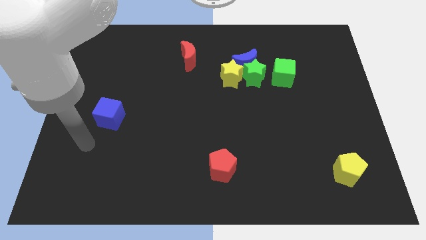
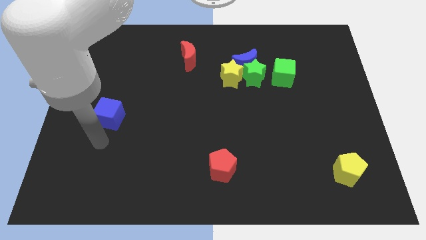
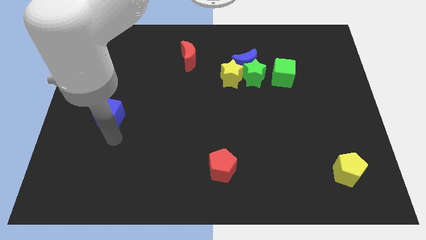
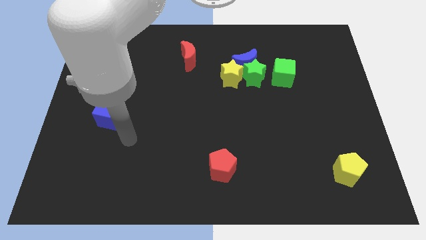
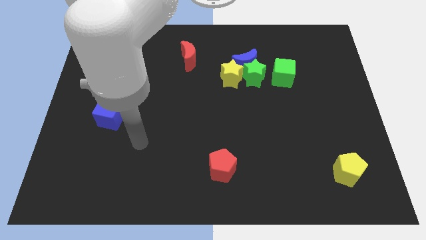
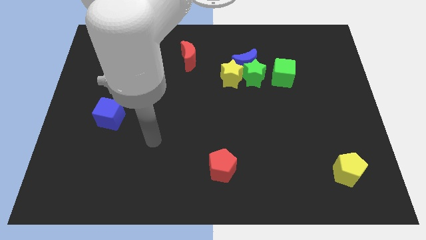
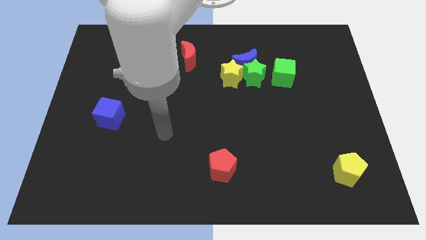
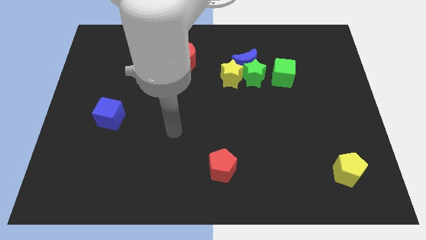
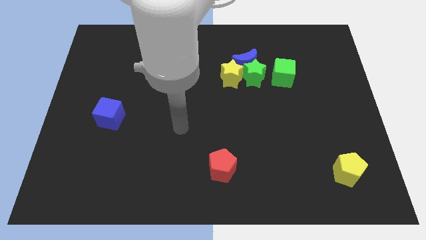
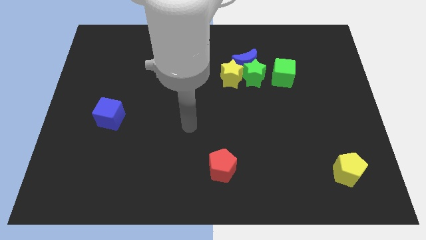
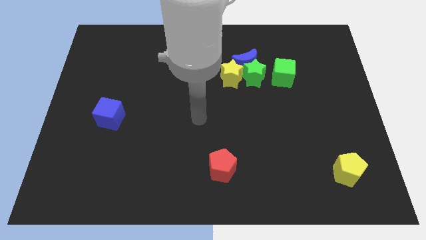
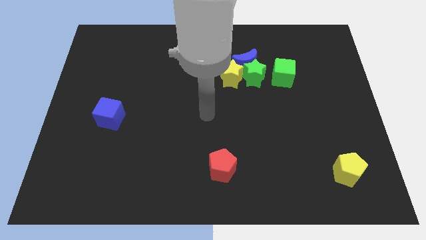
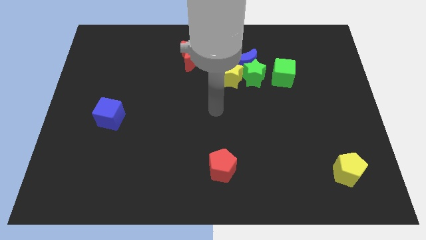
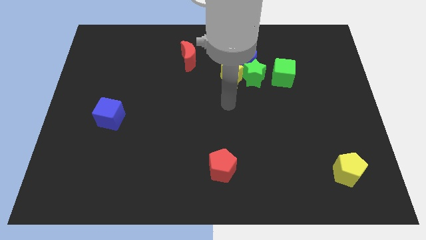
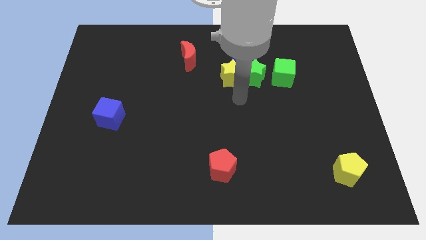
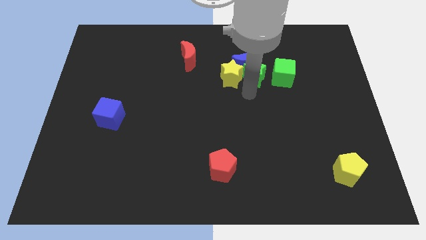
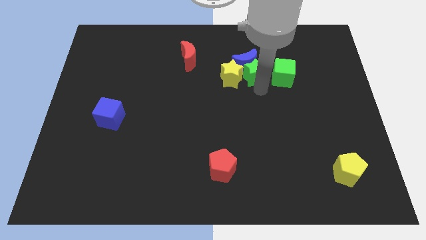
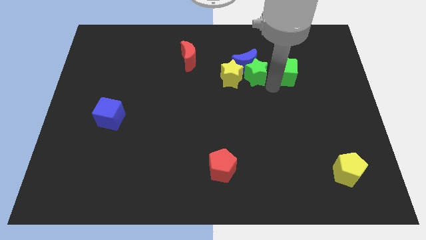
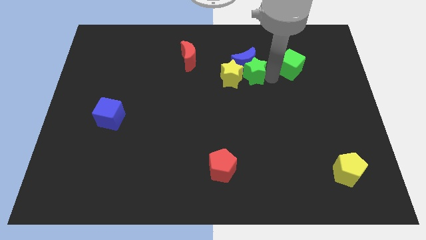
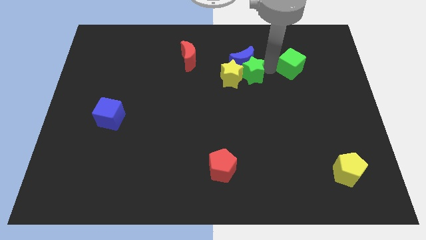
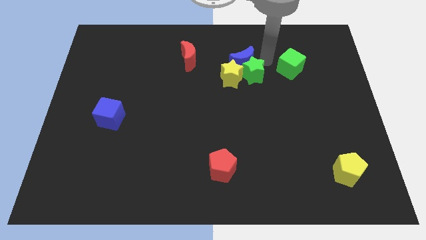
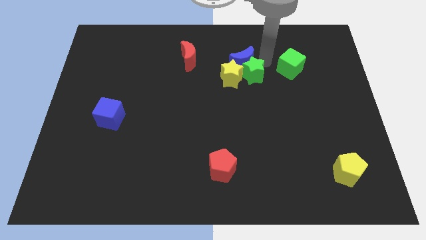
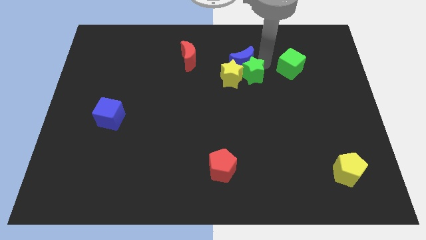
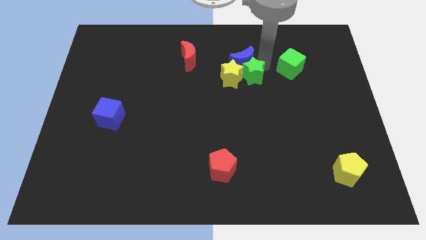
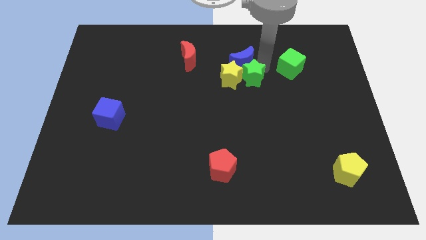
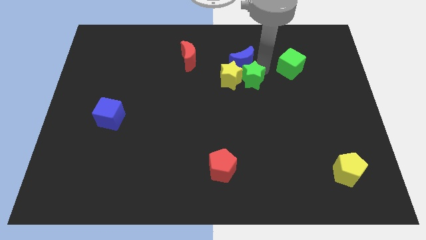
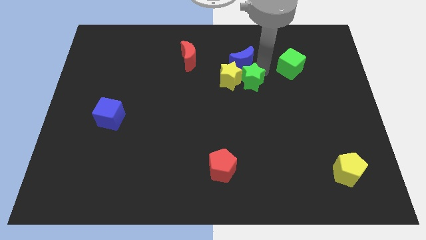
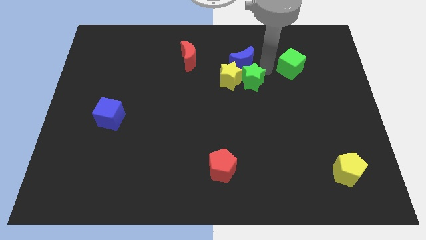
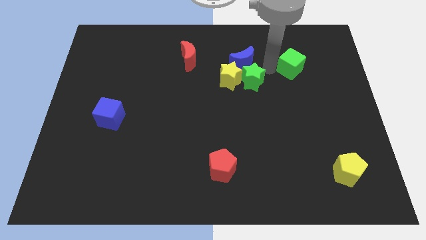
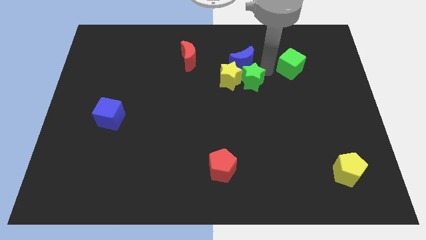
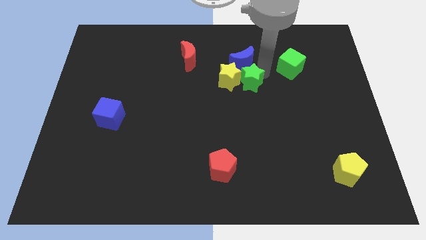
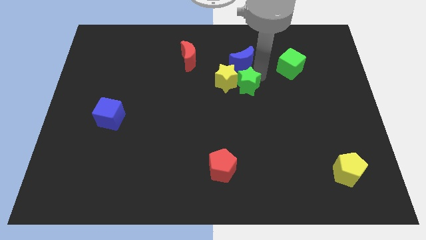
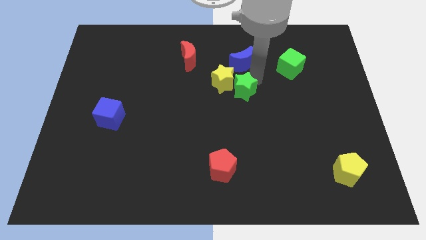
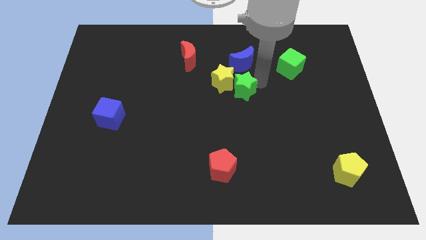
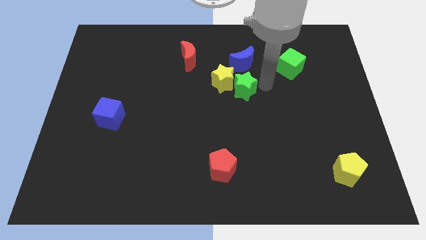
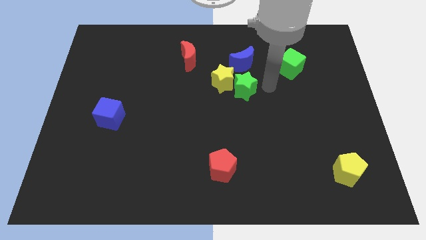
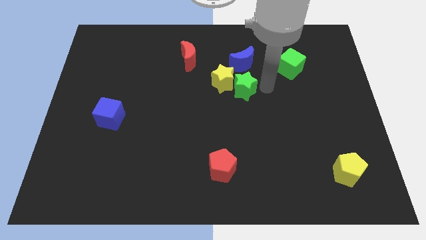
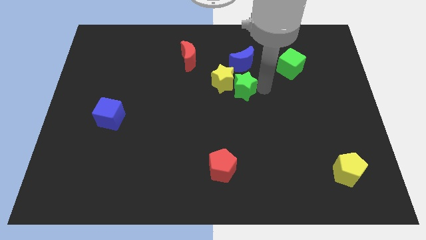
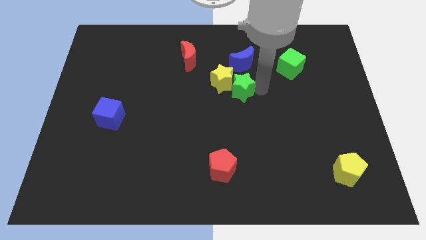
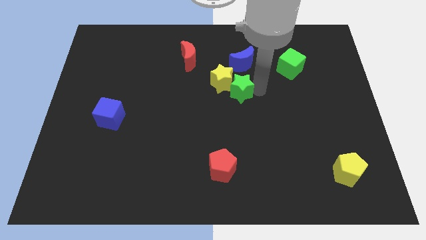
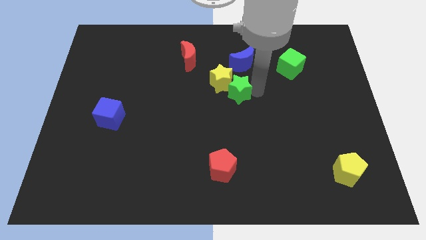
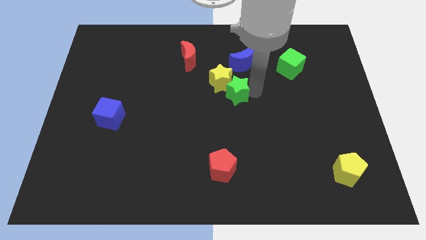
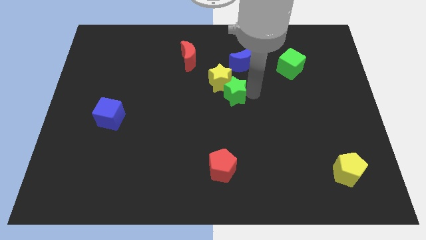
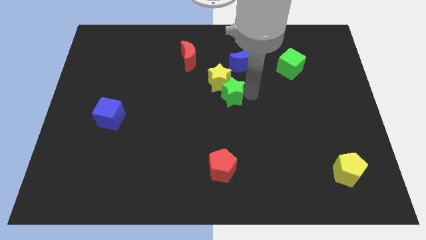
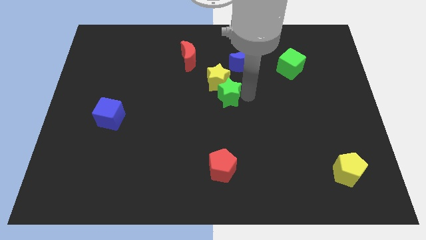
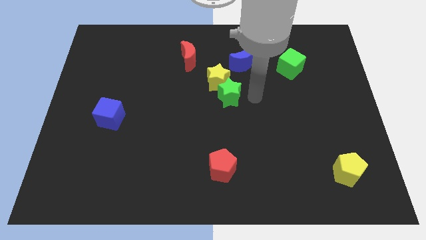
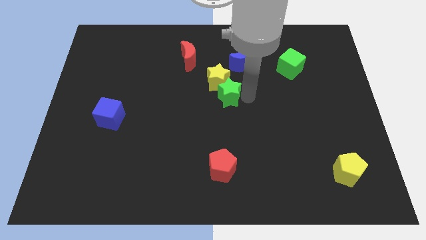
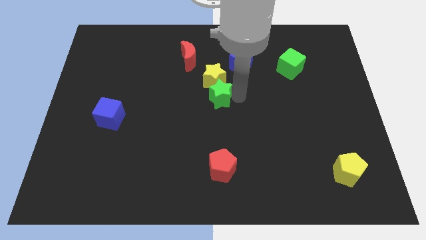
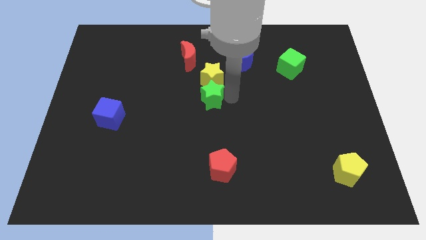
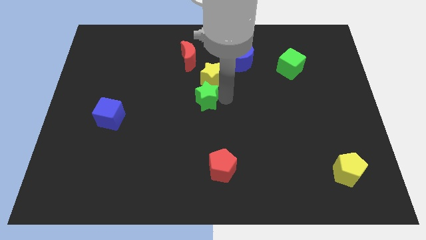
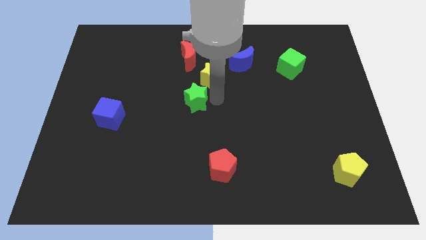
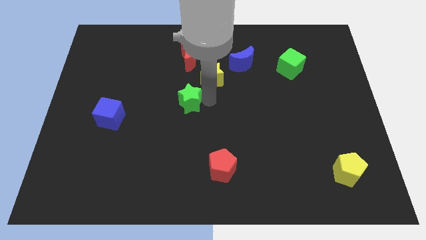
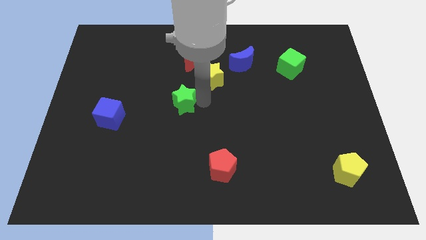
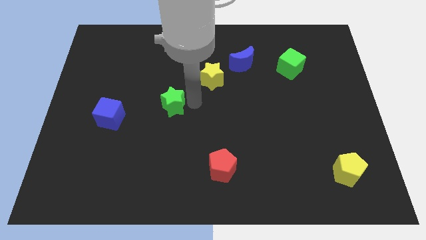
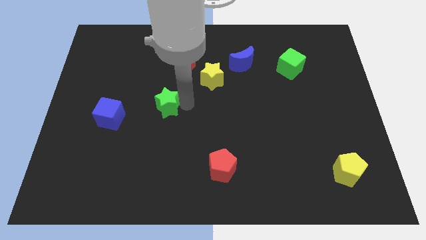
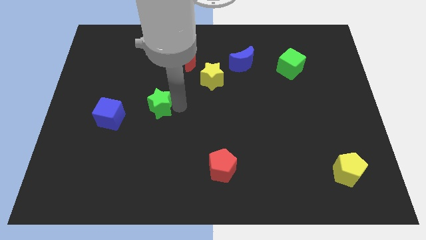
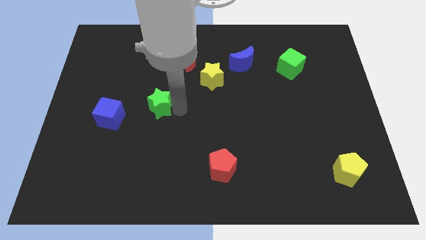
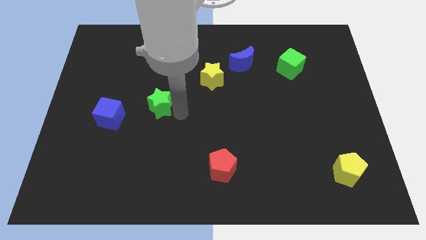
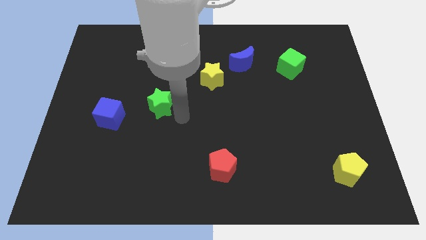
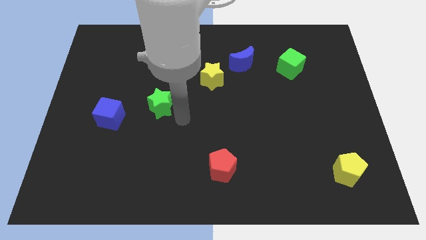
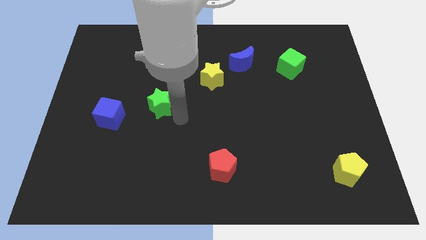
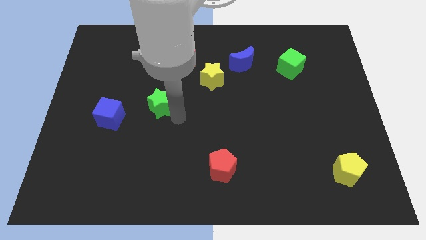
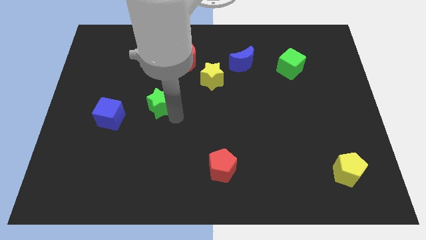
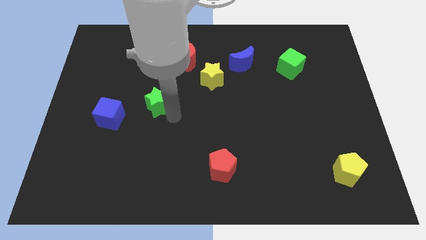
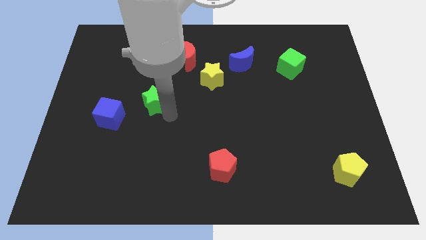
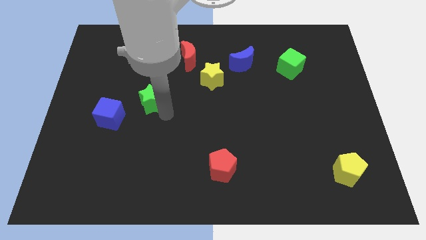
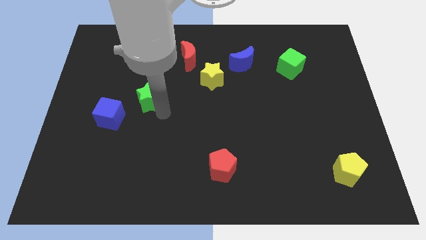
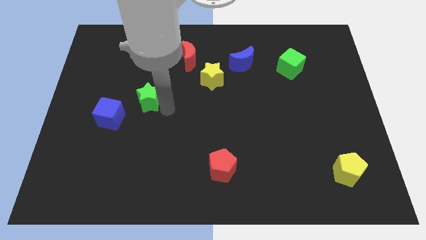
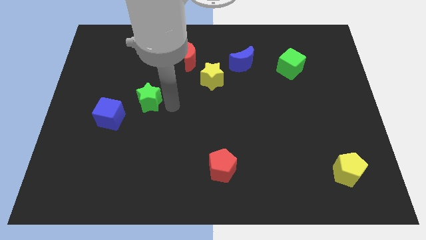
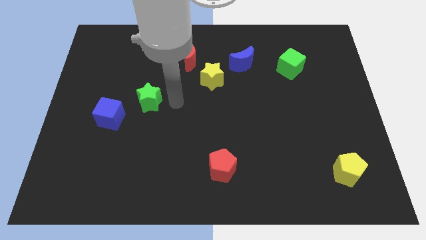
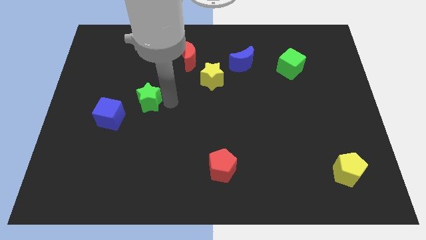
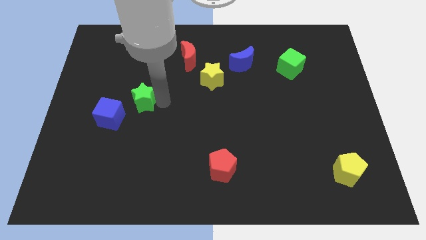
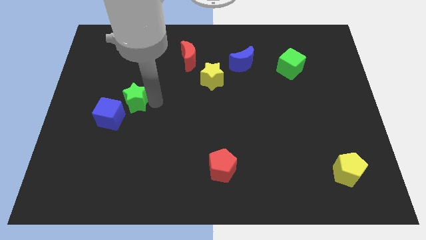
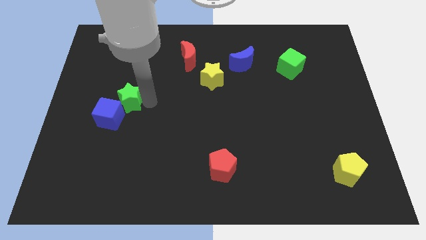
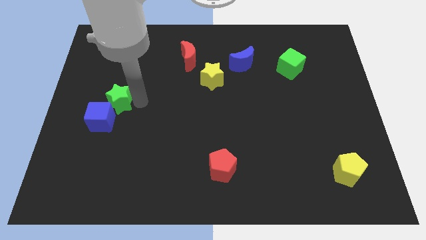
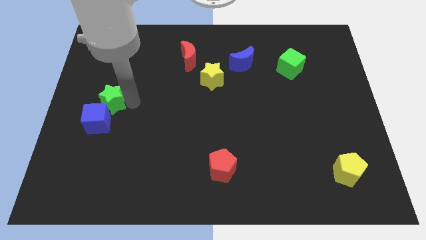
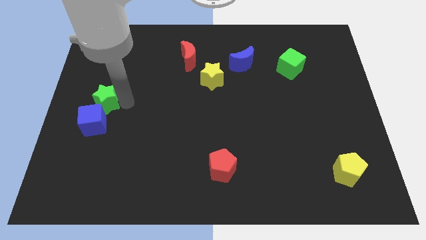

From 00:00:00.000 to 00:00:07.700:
put the green star to the center left
